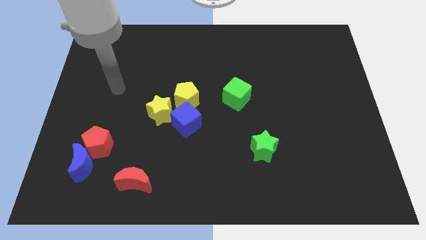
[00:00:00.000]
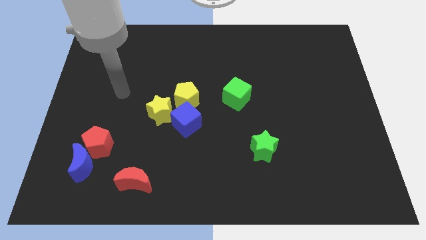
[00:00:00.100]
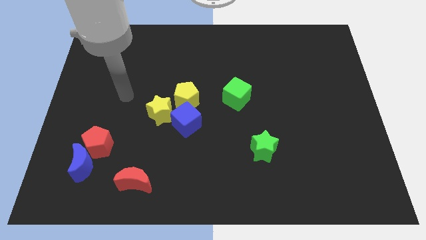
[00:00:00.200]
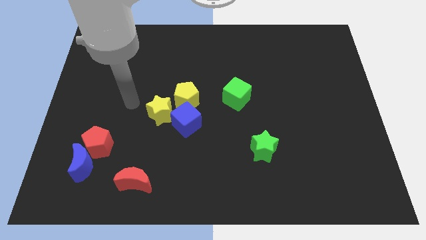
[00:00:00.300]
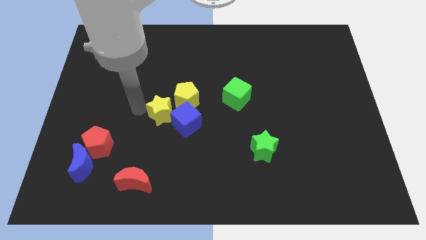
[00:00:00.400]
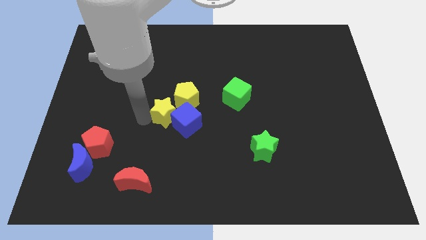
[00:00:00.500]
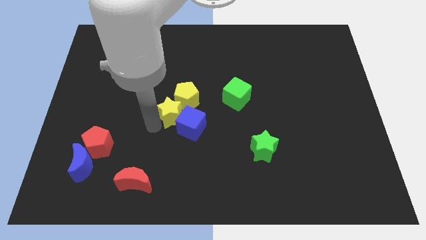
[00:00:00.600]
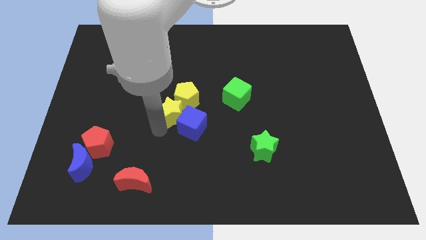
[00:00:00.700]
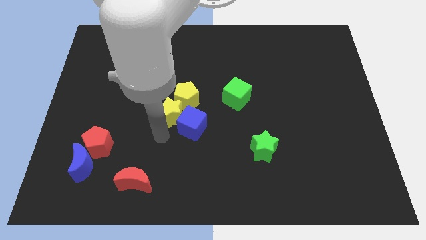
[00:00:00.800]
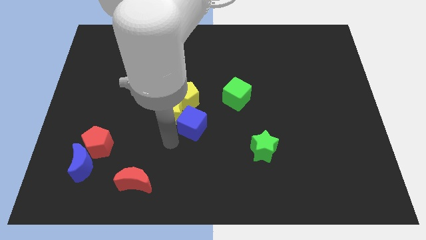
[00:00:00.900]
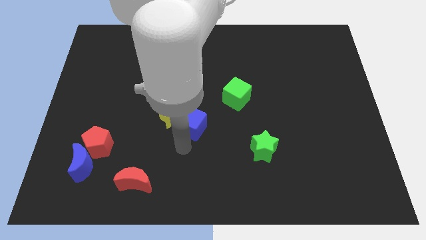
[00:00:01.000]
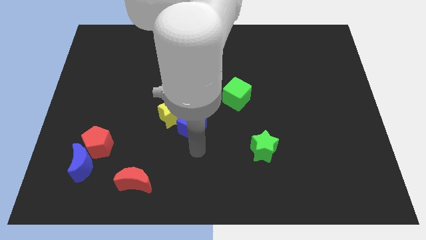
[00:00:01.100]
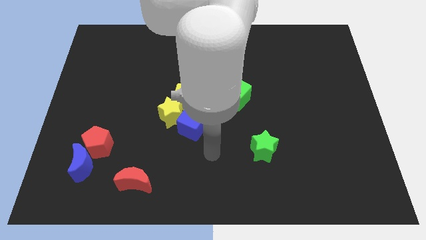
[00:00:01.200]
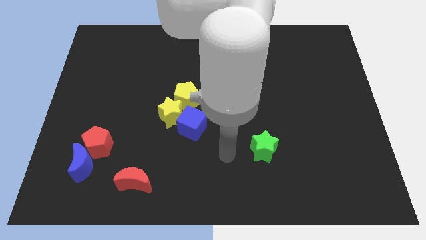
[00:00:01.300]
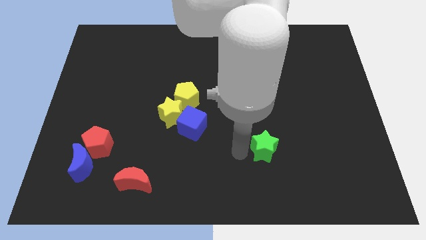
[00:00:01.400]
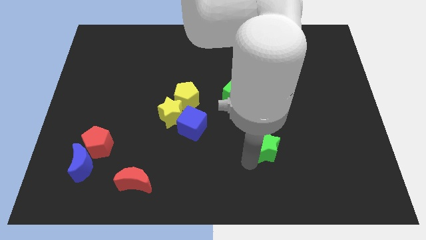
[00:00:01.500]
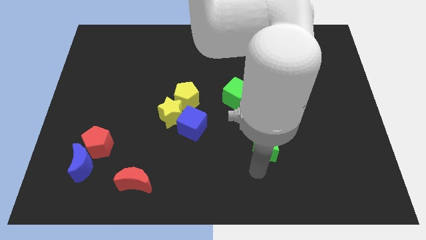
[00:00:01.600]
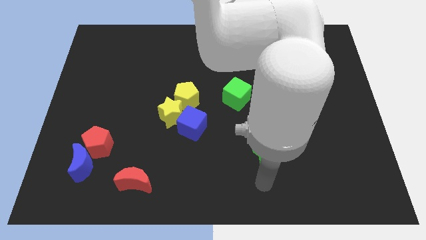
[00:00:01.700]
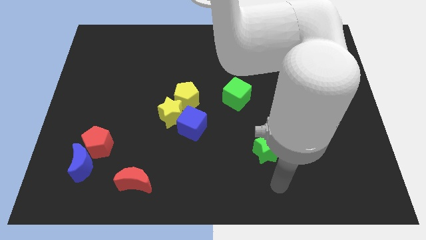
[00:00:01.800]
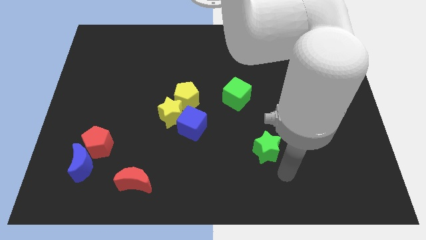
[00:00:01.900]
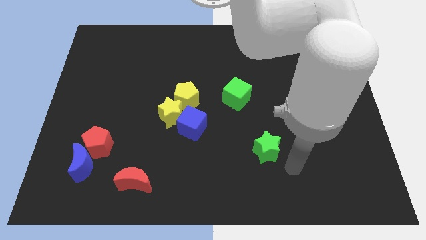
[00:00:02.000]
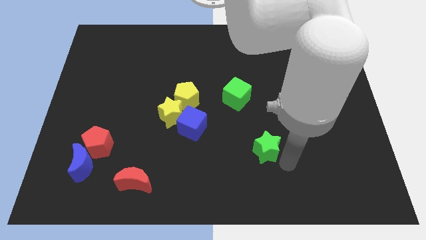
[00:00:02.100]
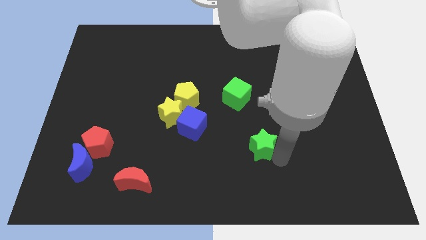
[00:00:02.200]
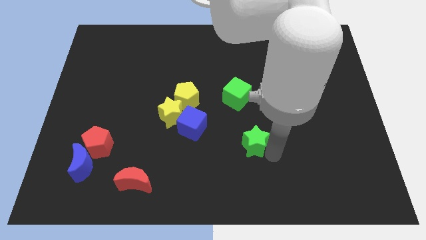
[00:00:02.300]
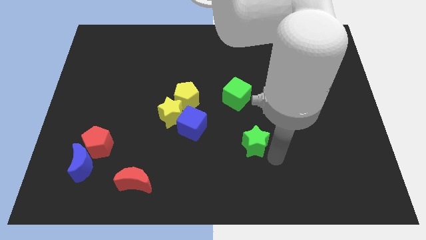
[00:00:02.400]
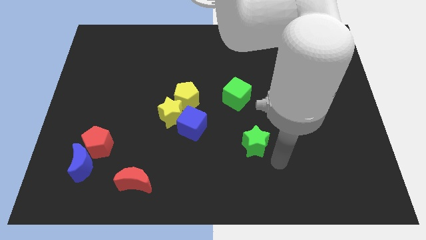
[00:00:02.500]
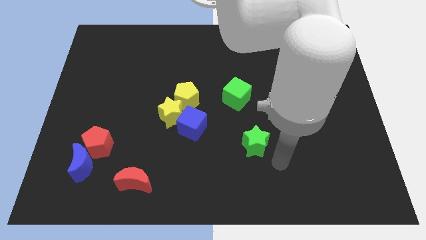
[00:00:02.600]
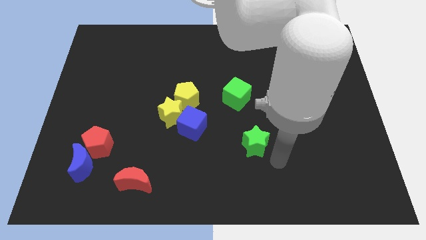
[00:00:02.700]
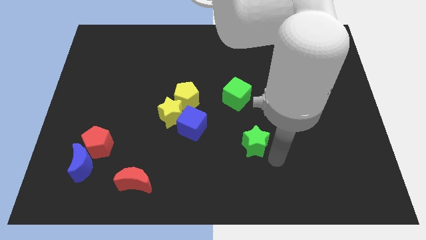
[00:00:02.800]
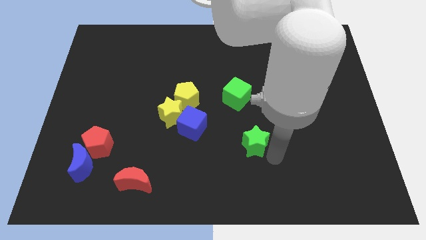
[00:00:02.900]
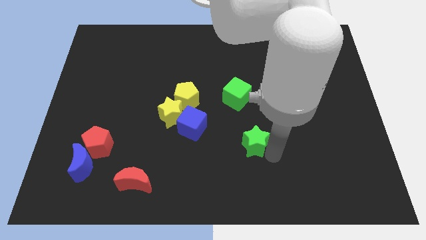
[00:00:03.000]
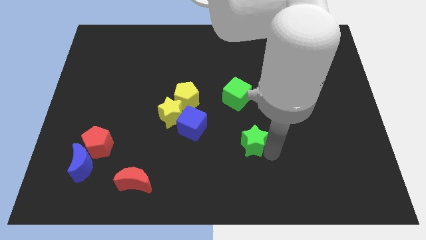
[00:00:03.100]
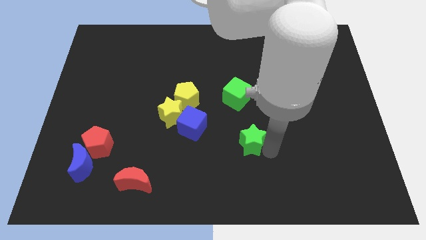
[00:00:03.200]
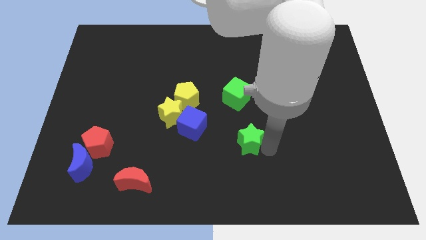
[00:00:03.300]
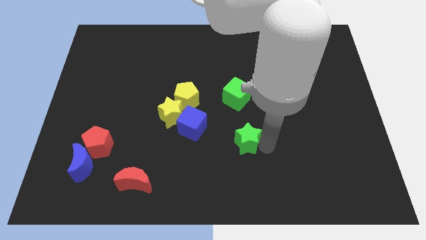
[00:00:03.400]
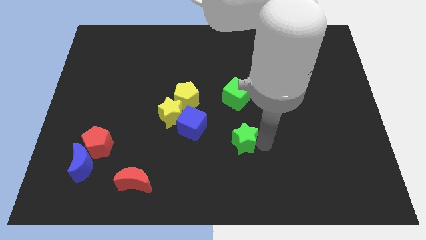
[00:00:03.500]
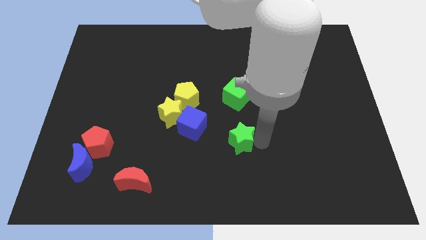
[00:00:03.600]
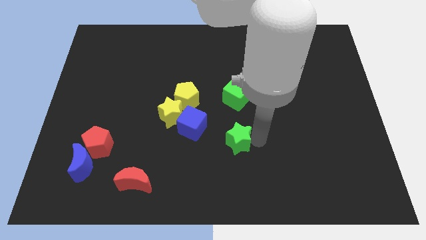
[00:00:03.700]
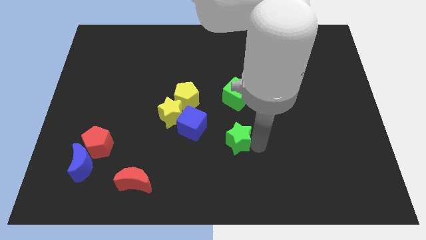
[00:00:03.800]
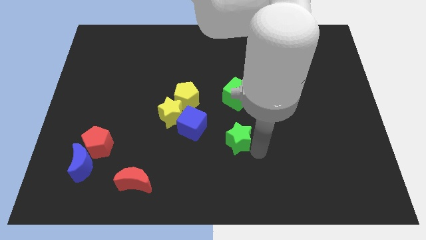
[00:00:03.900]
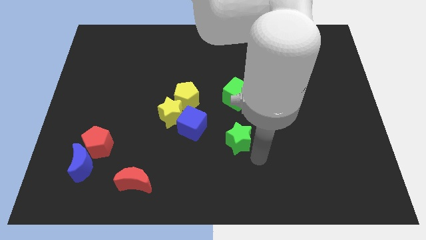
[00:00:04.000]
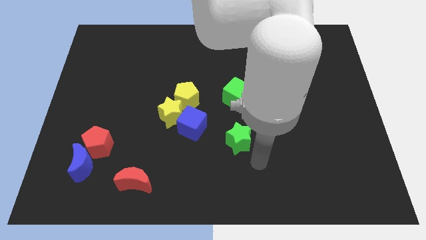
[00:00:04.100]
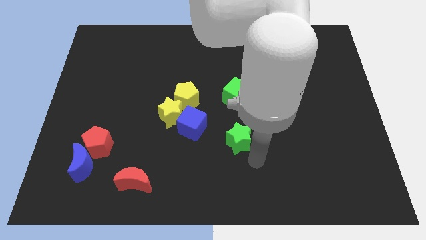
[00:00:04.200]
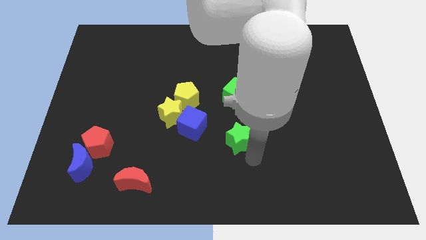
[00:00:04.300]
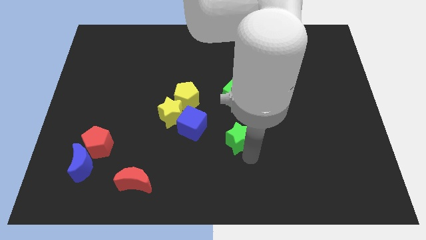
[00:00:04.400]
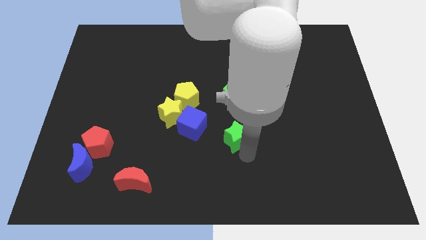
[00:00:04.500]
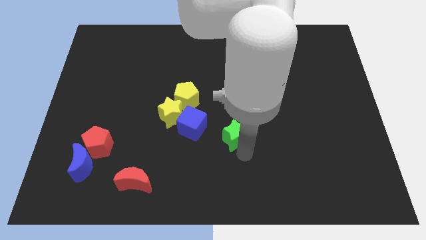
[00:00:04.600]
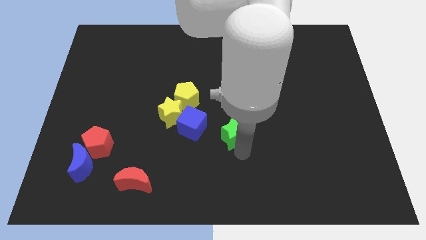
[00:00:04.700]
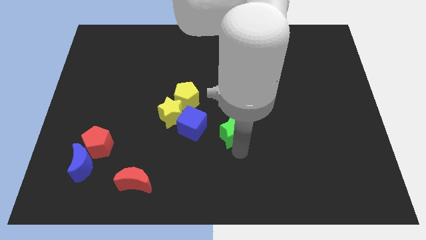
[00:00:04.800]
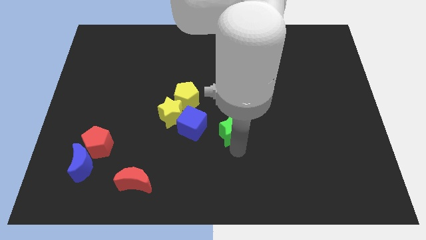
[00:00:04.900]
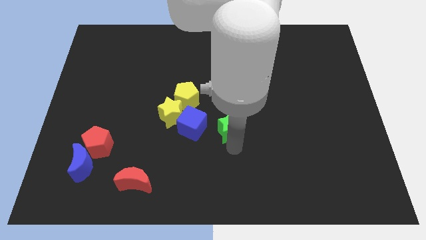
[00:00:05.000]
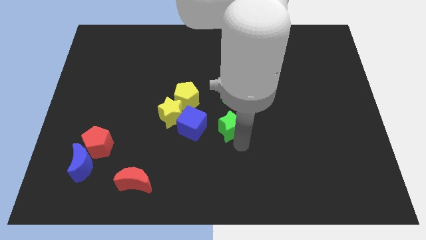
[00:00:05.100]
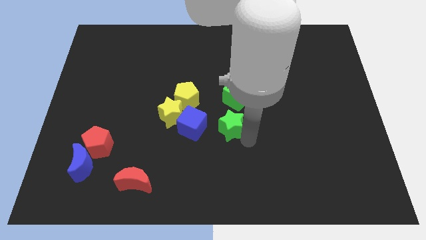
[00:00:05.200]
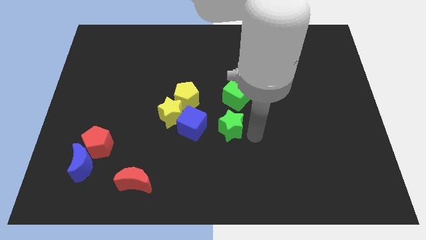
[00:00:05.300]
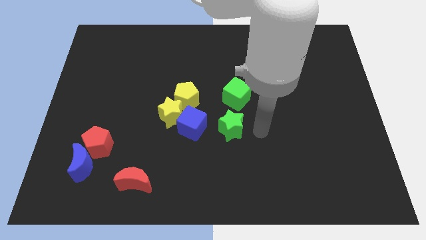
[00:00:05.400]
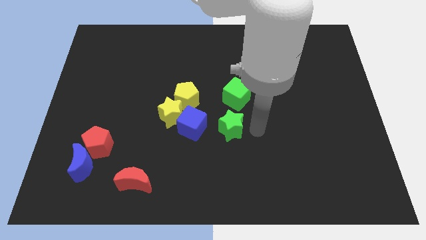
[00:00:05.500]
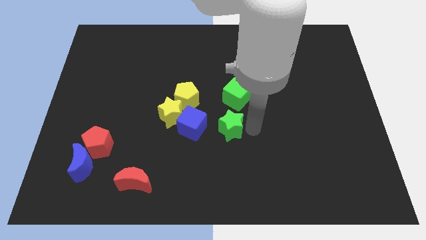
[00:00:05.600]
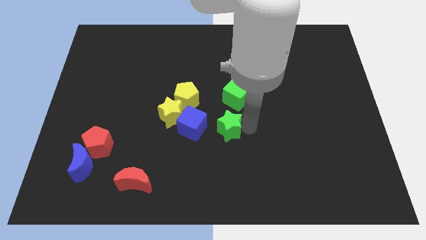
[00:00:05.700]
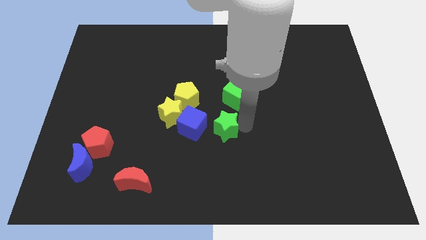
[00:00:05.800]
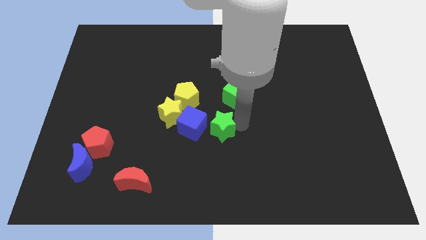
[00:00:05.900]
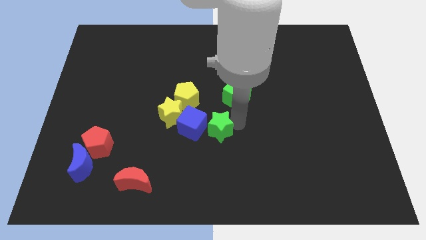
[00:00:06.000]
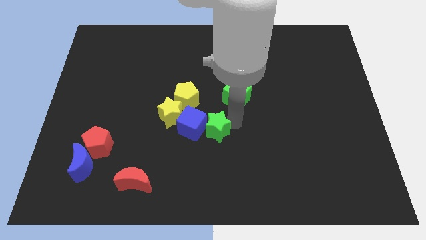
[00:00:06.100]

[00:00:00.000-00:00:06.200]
move the green star to the blue cube
